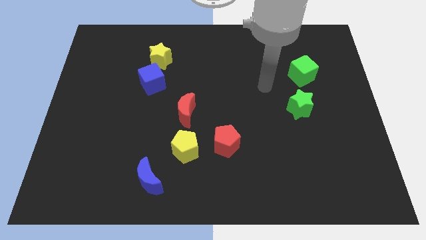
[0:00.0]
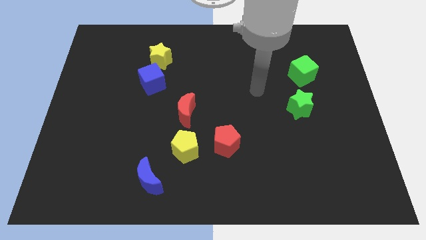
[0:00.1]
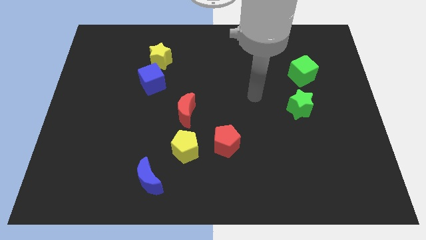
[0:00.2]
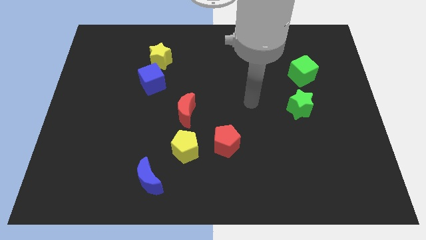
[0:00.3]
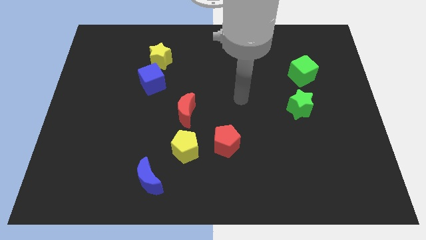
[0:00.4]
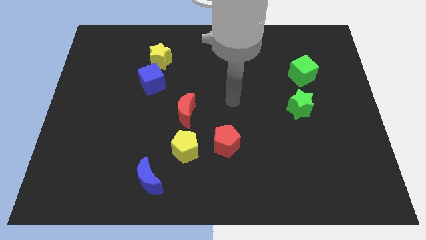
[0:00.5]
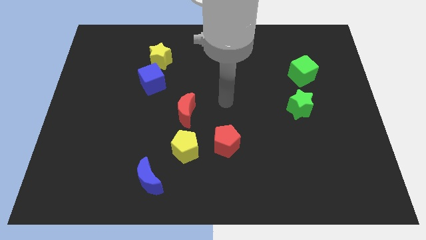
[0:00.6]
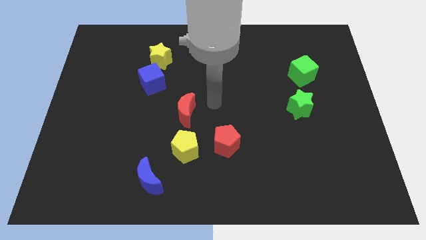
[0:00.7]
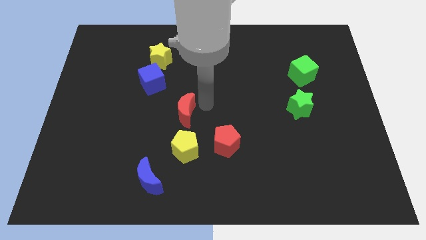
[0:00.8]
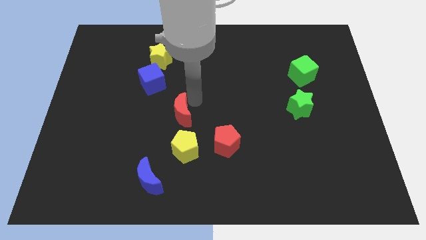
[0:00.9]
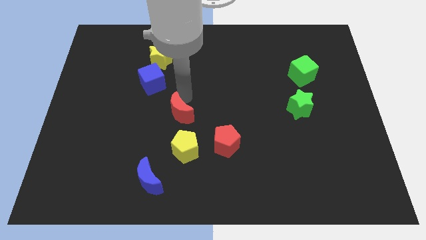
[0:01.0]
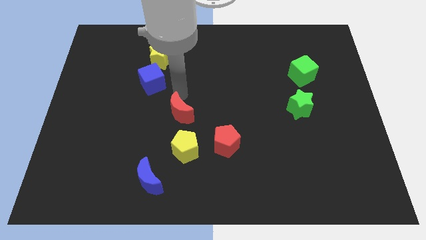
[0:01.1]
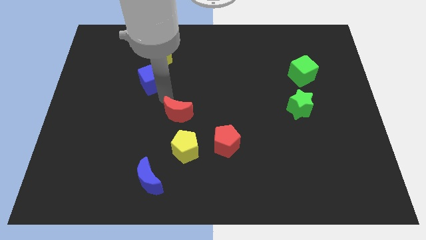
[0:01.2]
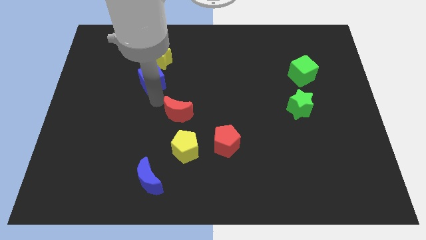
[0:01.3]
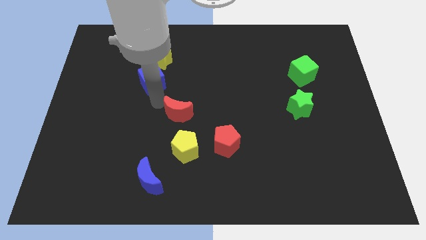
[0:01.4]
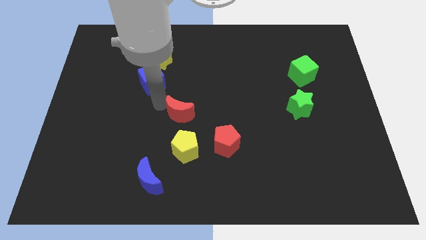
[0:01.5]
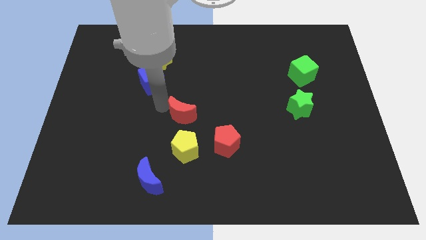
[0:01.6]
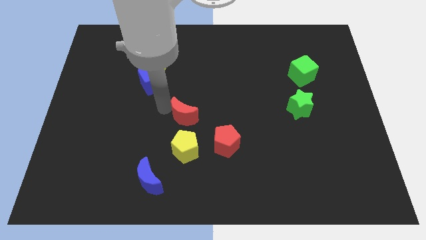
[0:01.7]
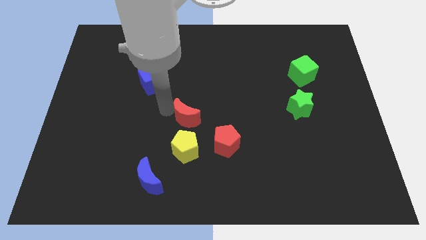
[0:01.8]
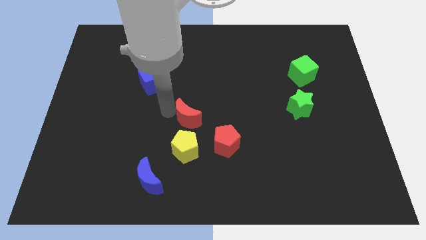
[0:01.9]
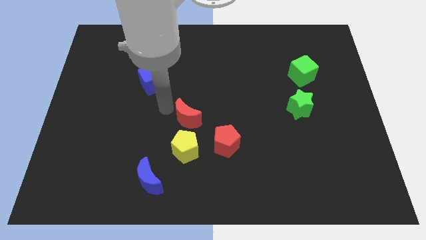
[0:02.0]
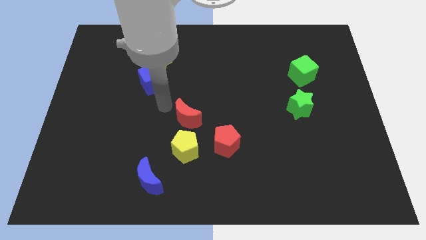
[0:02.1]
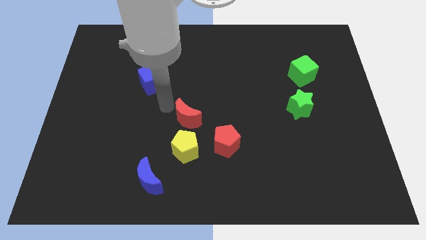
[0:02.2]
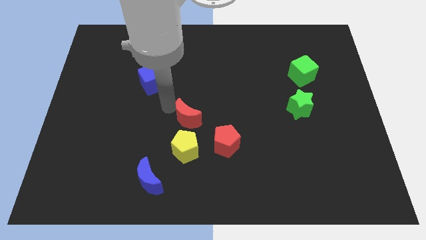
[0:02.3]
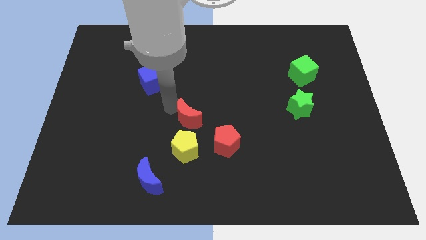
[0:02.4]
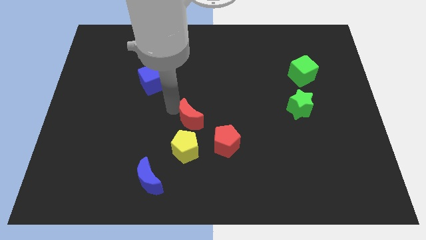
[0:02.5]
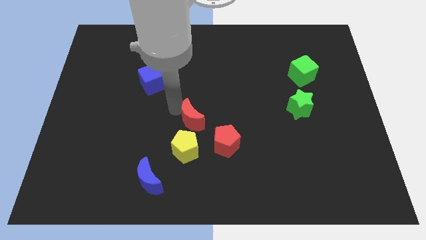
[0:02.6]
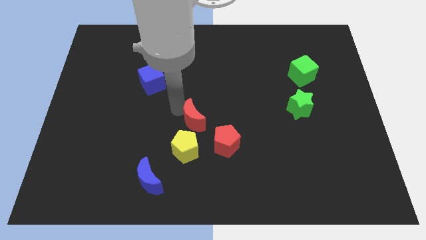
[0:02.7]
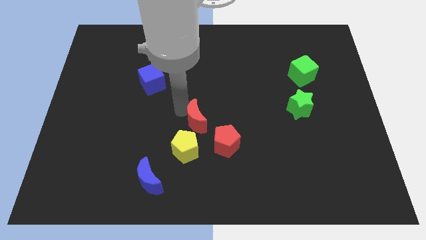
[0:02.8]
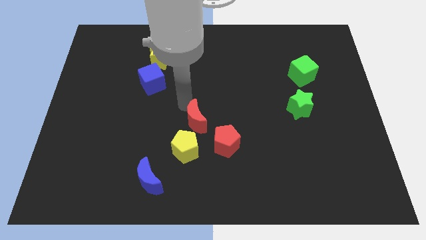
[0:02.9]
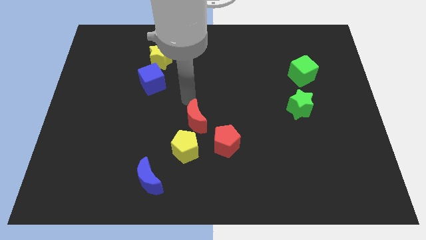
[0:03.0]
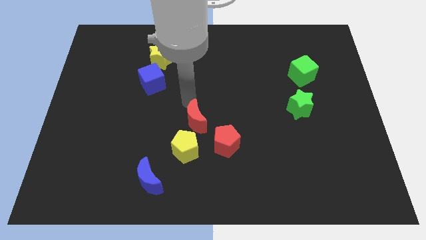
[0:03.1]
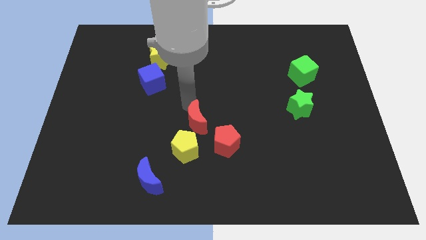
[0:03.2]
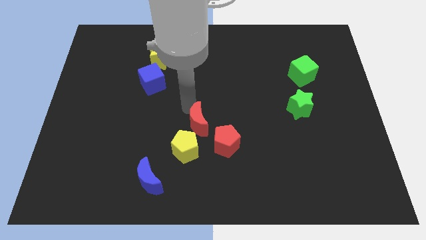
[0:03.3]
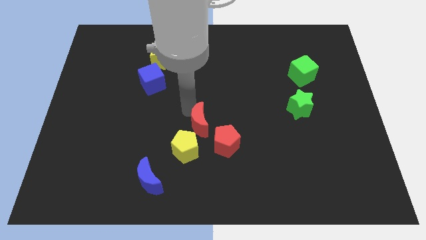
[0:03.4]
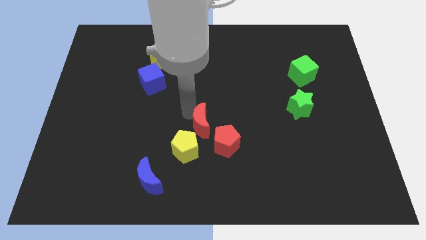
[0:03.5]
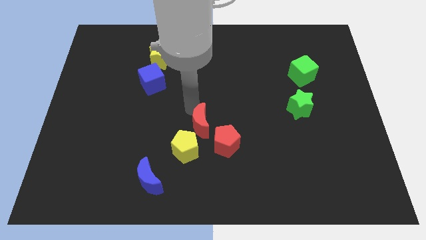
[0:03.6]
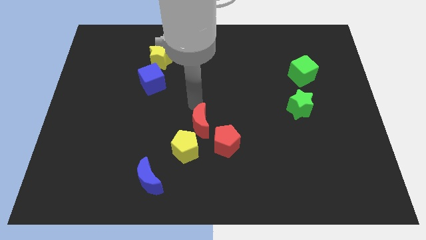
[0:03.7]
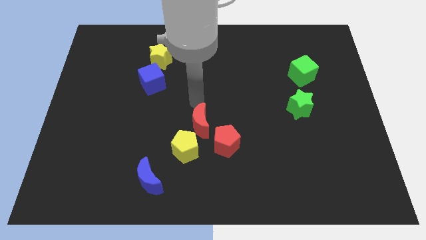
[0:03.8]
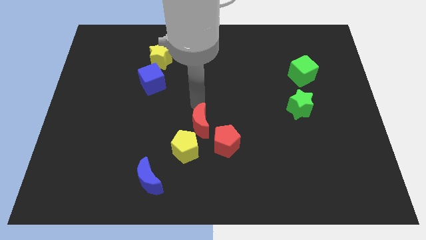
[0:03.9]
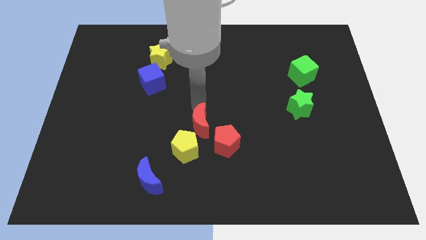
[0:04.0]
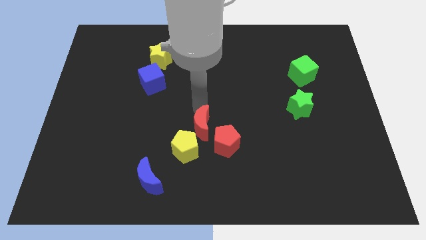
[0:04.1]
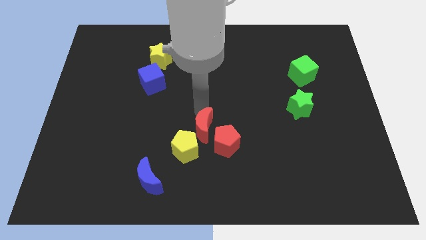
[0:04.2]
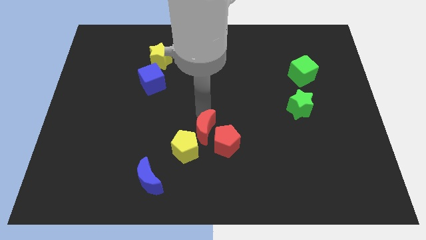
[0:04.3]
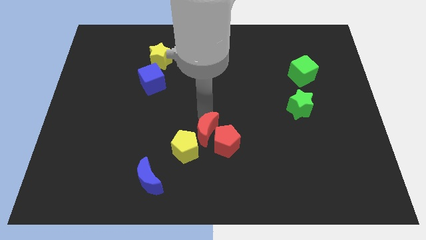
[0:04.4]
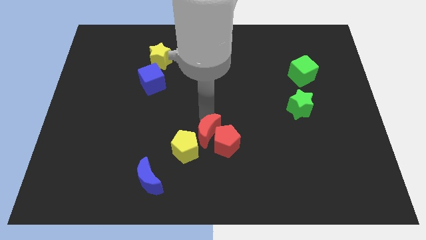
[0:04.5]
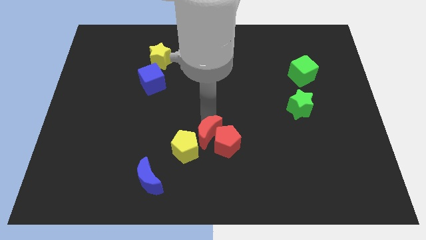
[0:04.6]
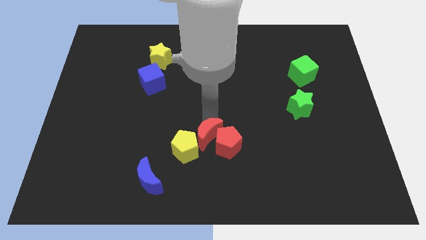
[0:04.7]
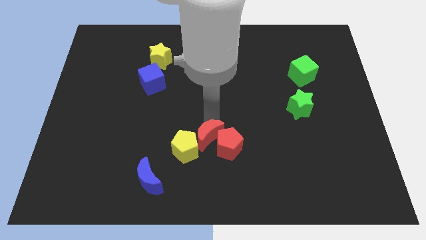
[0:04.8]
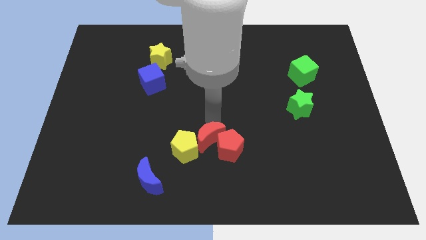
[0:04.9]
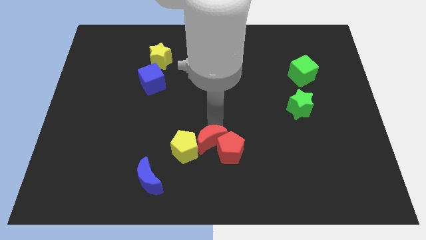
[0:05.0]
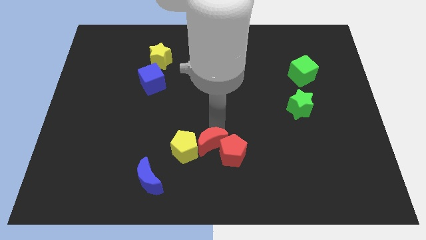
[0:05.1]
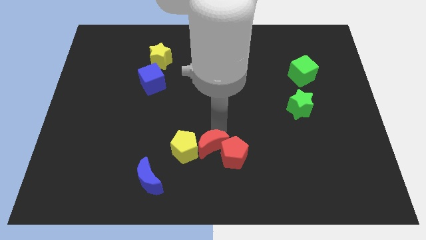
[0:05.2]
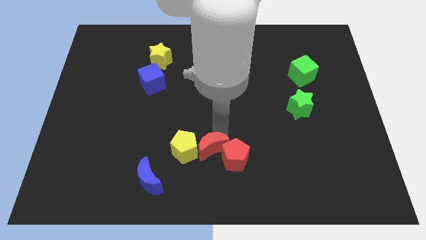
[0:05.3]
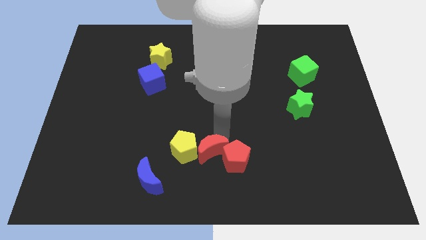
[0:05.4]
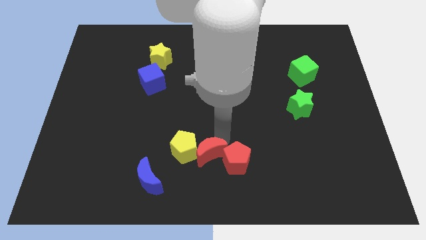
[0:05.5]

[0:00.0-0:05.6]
move the red moon to the bottom side
